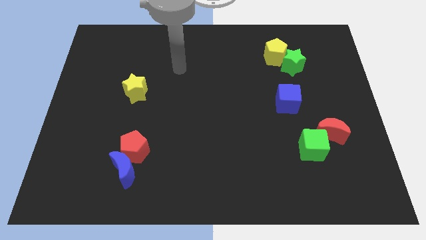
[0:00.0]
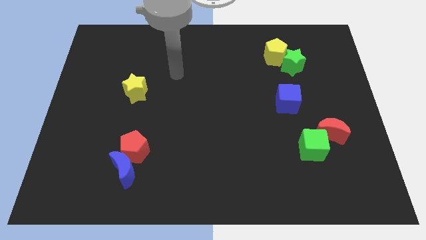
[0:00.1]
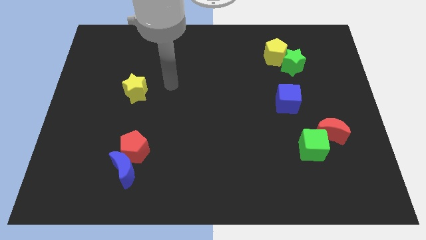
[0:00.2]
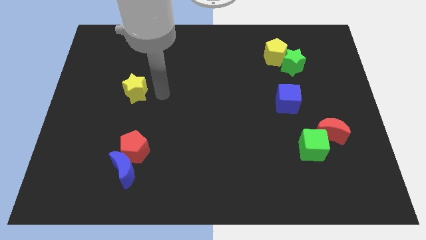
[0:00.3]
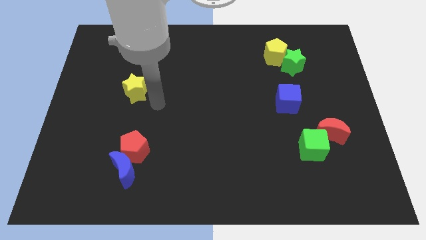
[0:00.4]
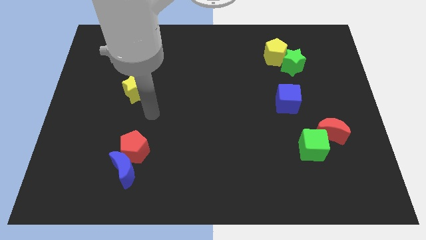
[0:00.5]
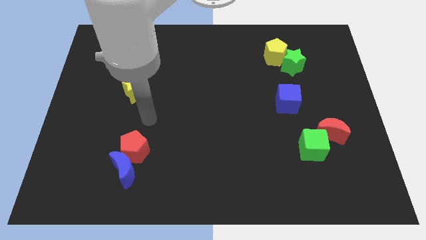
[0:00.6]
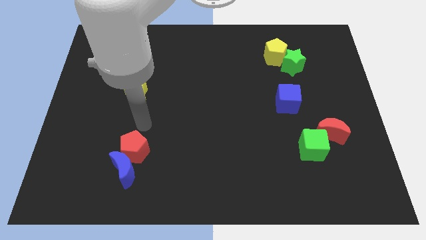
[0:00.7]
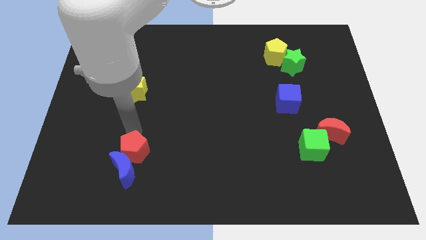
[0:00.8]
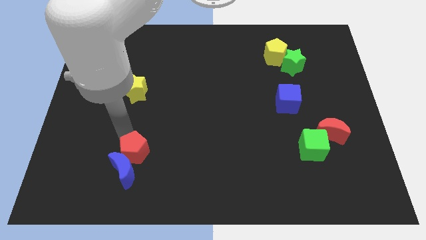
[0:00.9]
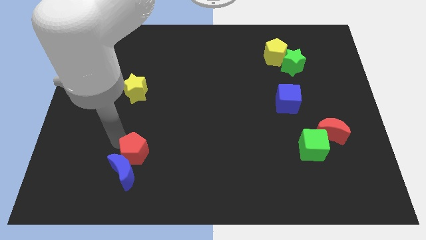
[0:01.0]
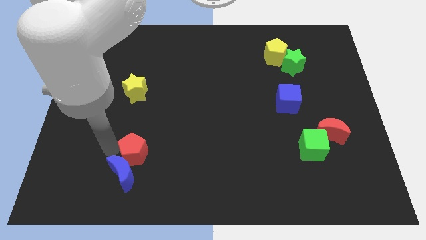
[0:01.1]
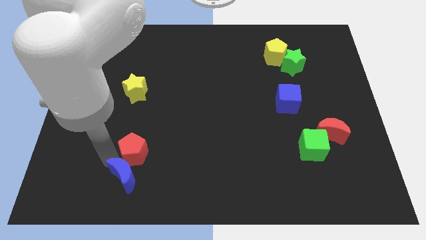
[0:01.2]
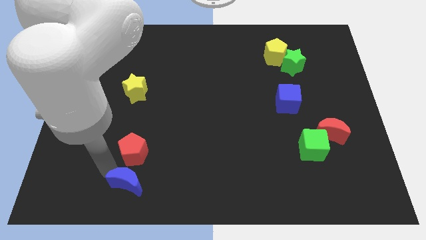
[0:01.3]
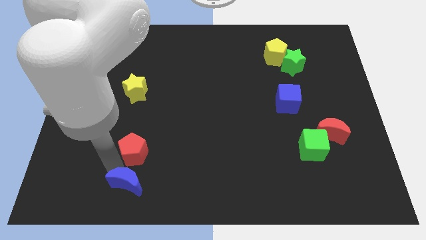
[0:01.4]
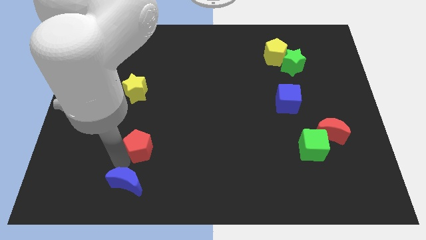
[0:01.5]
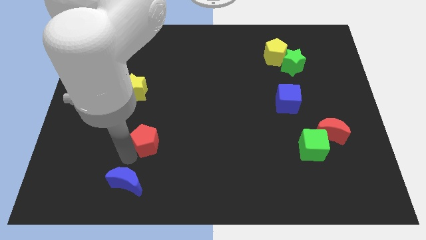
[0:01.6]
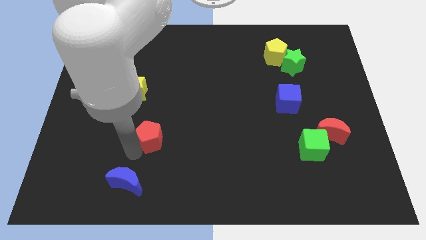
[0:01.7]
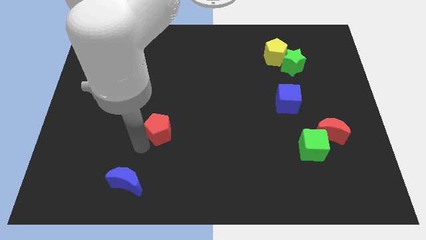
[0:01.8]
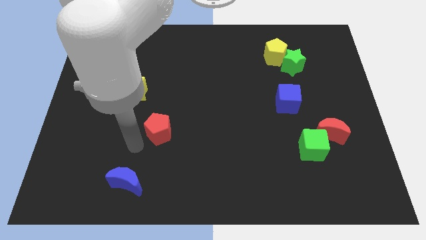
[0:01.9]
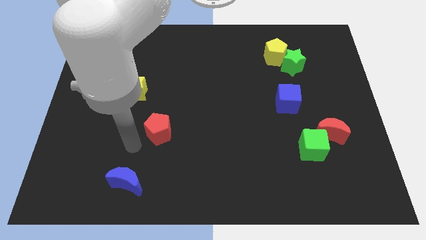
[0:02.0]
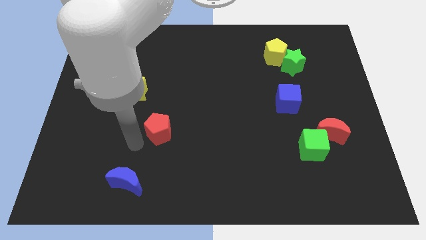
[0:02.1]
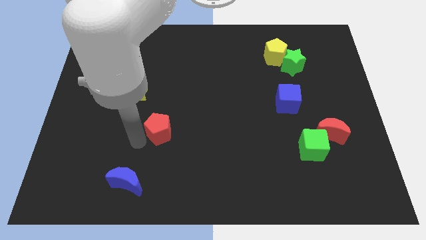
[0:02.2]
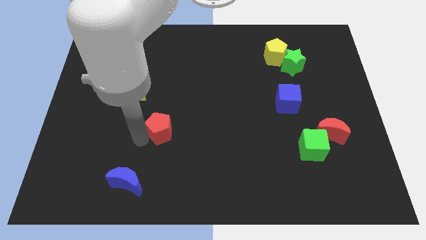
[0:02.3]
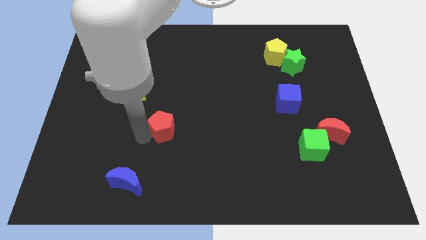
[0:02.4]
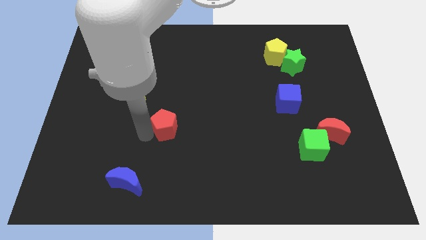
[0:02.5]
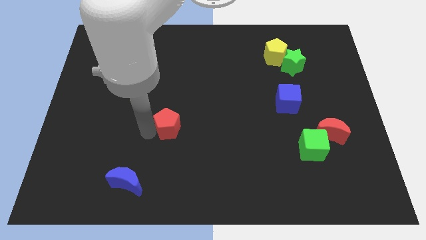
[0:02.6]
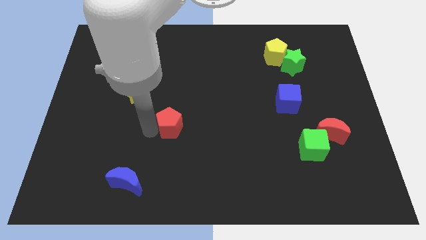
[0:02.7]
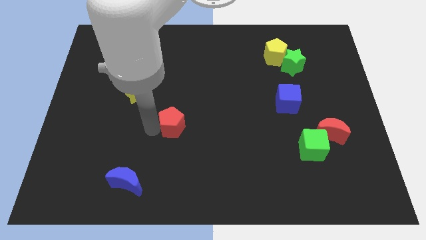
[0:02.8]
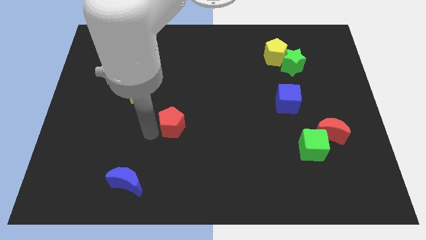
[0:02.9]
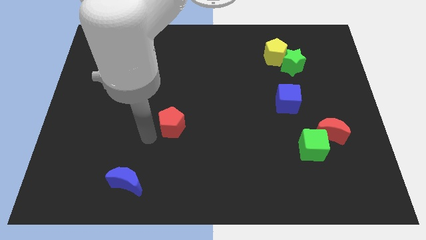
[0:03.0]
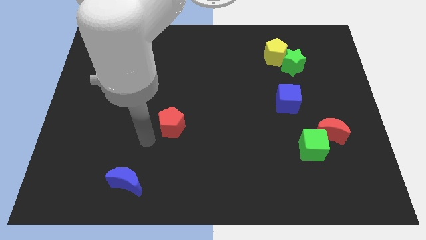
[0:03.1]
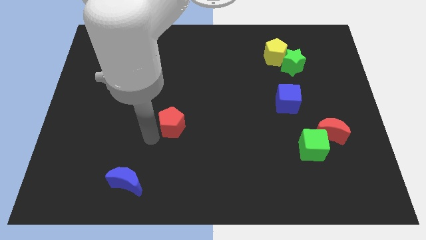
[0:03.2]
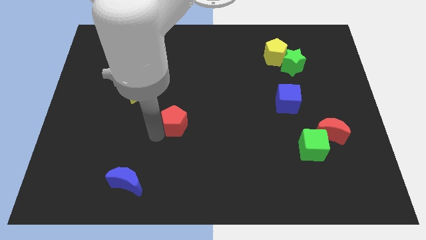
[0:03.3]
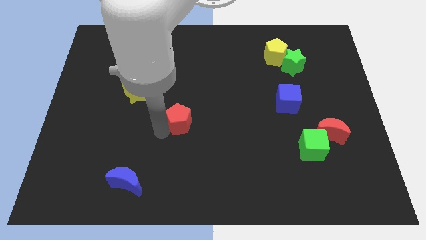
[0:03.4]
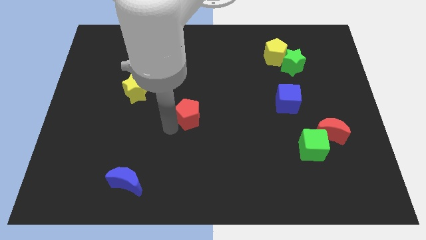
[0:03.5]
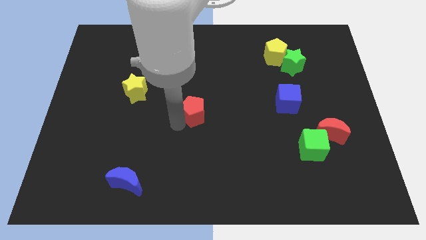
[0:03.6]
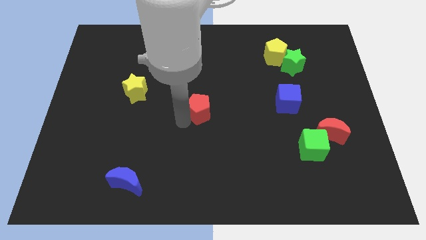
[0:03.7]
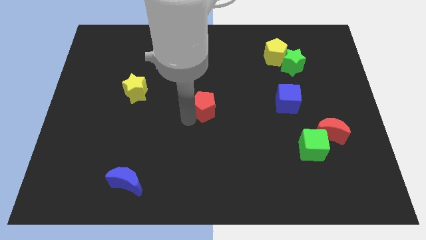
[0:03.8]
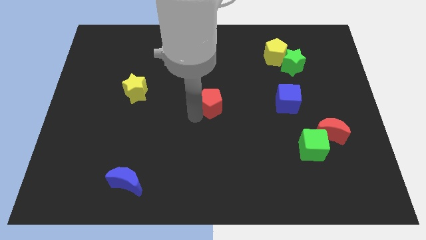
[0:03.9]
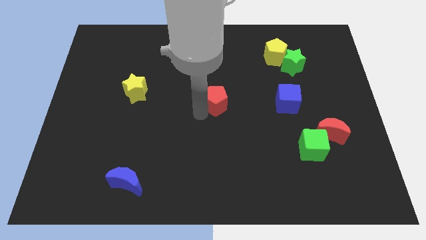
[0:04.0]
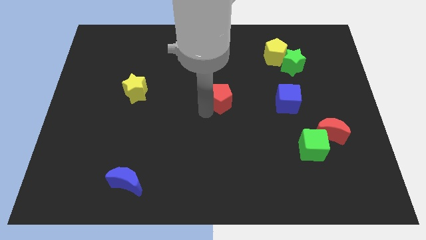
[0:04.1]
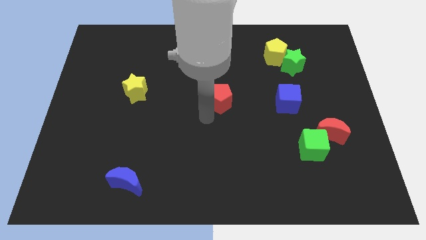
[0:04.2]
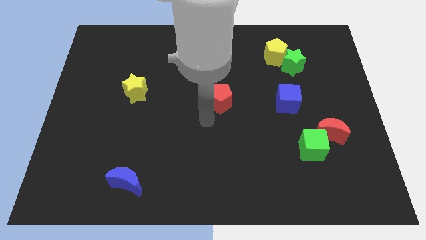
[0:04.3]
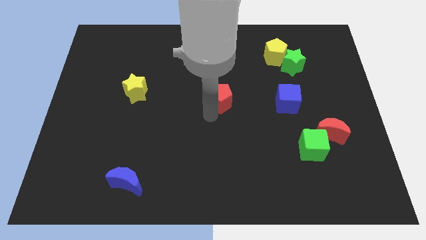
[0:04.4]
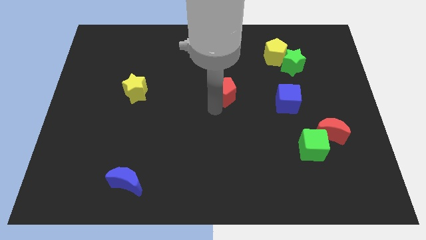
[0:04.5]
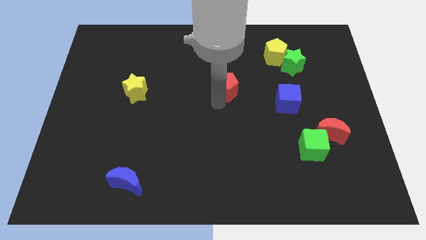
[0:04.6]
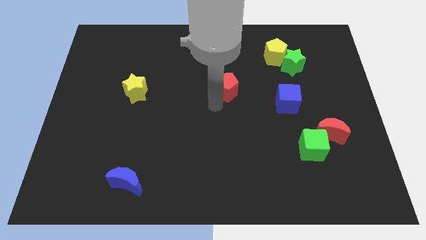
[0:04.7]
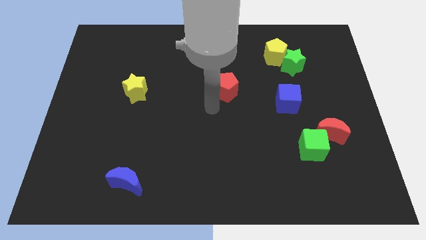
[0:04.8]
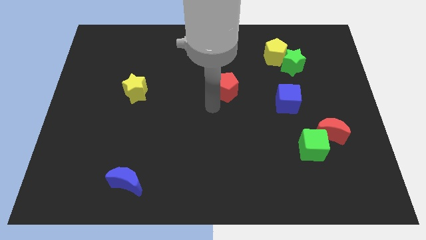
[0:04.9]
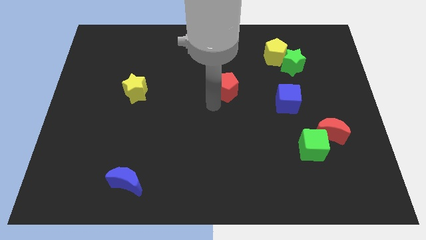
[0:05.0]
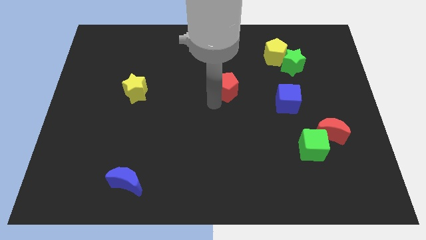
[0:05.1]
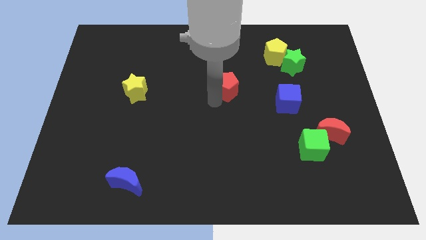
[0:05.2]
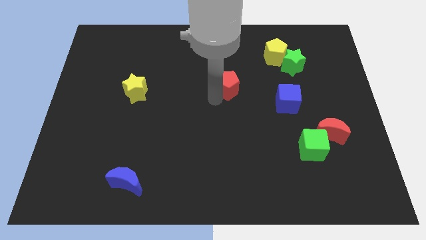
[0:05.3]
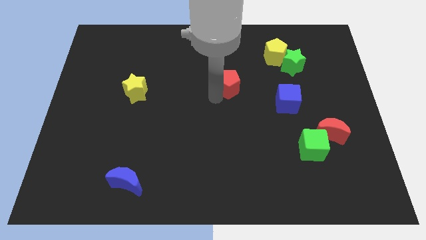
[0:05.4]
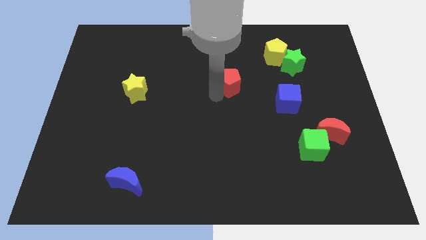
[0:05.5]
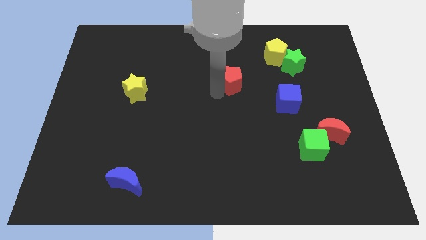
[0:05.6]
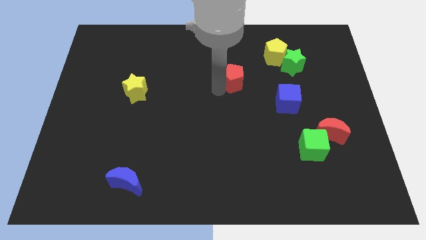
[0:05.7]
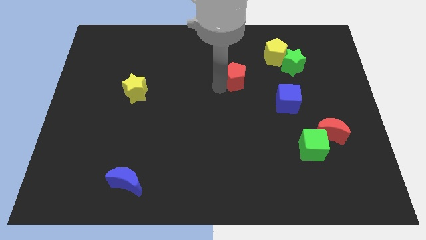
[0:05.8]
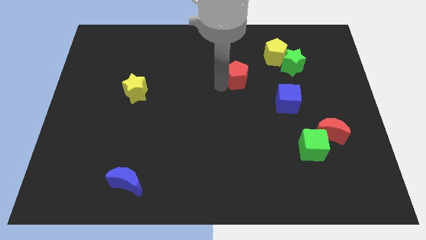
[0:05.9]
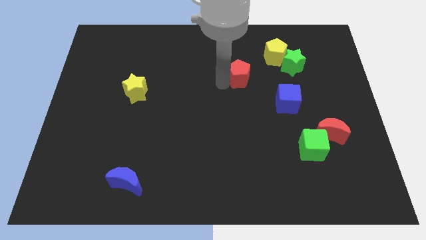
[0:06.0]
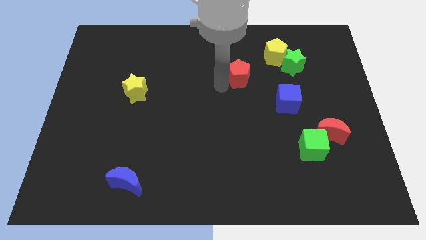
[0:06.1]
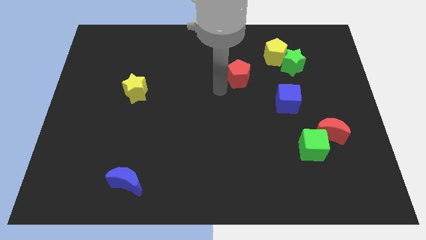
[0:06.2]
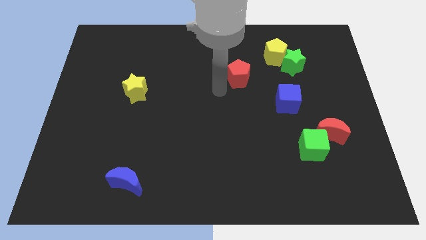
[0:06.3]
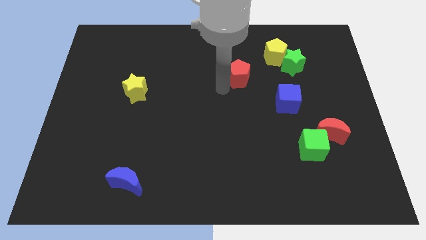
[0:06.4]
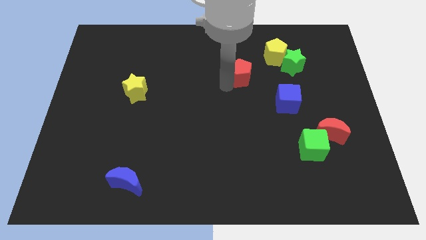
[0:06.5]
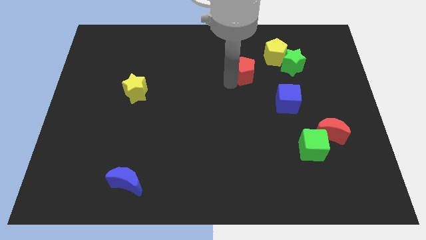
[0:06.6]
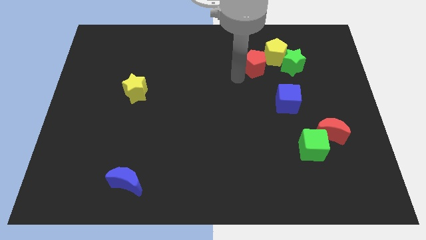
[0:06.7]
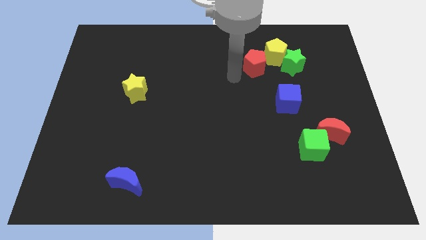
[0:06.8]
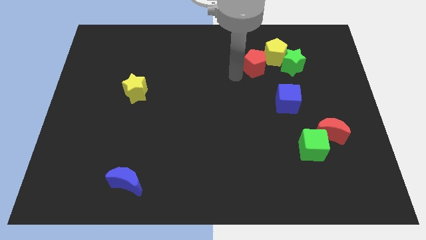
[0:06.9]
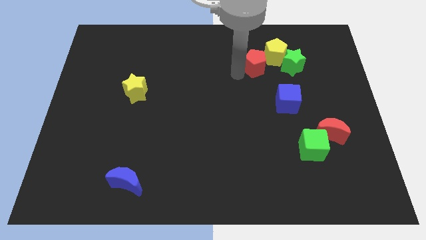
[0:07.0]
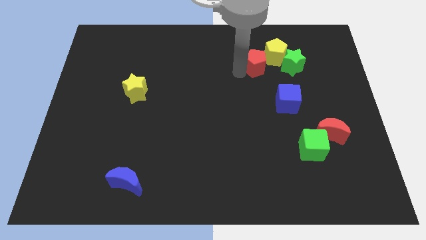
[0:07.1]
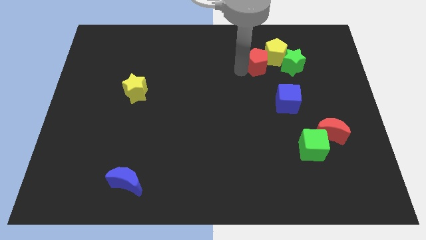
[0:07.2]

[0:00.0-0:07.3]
move the red pentagon to the yellow pentagon
